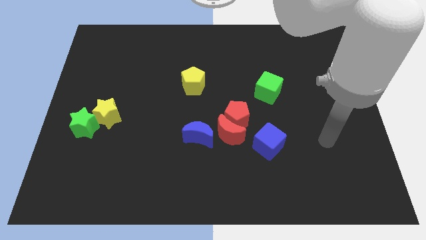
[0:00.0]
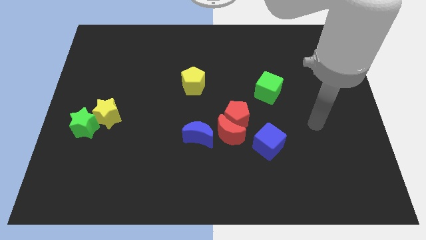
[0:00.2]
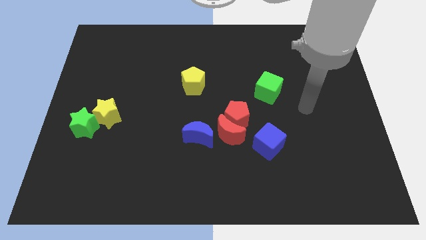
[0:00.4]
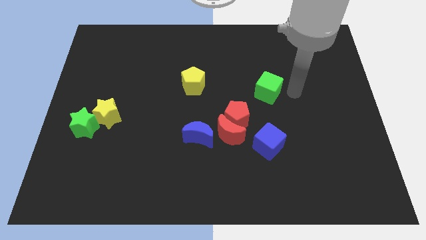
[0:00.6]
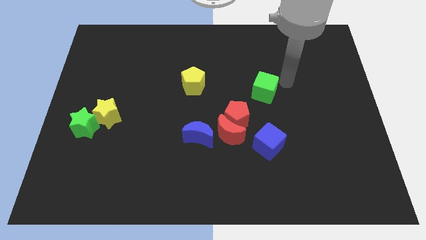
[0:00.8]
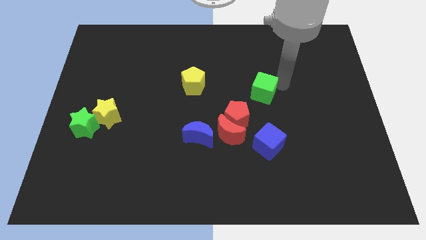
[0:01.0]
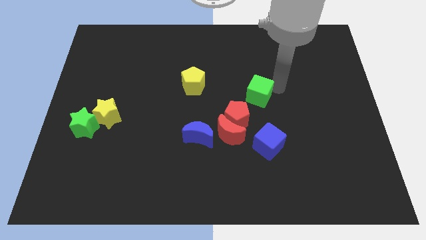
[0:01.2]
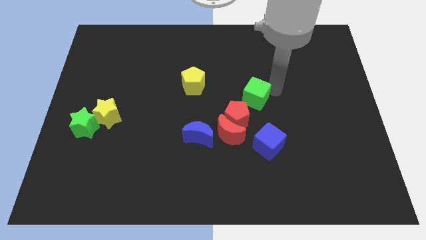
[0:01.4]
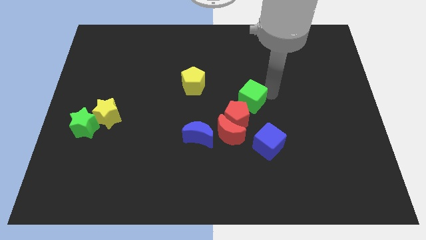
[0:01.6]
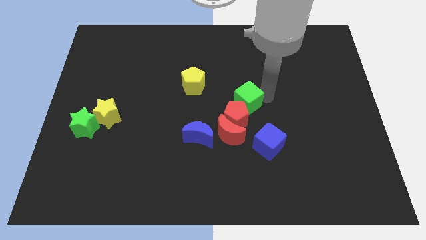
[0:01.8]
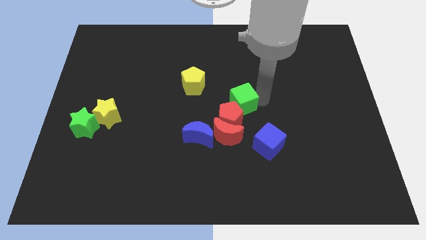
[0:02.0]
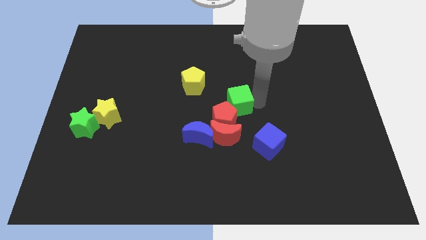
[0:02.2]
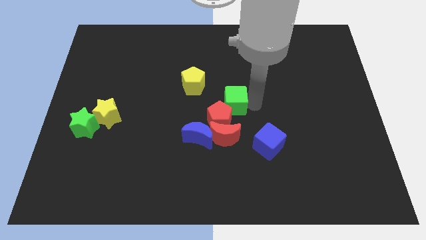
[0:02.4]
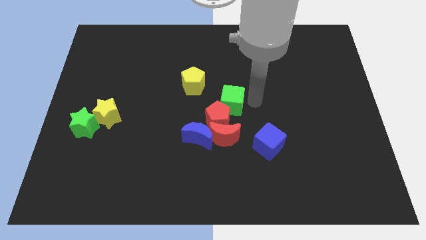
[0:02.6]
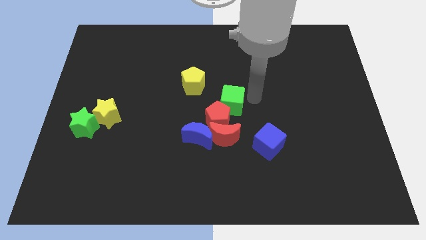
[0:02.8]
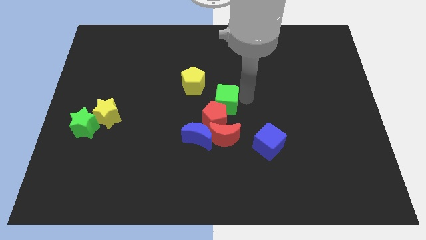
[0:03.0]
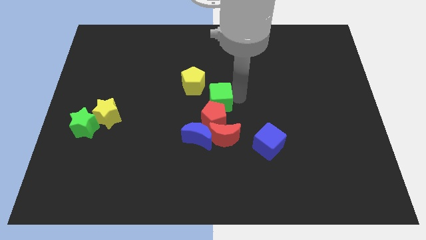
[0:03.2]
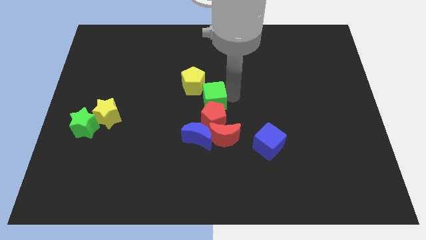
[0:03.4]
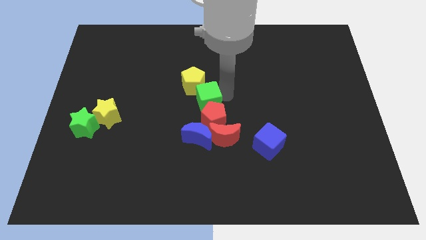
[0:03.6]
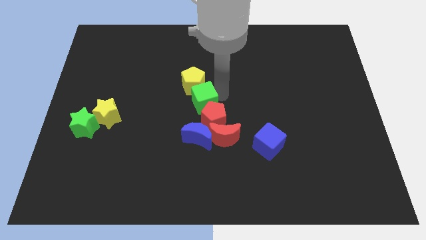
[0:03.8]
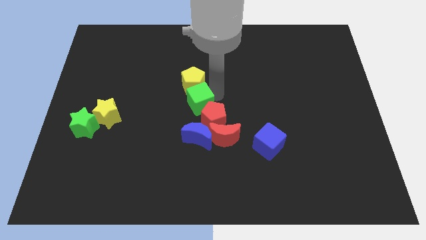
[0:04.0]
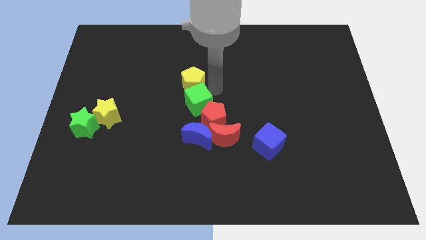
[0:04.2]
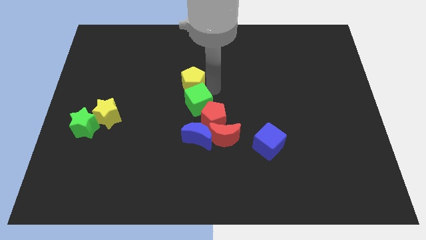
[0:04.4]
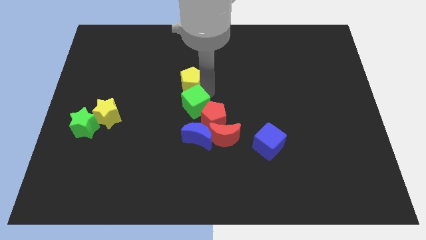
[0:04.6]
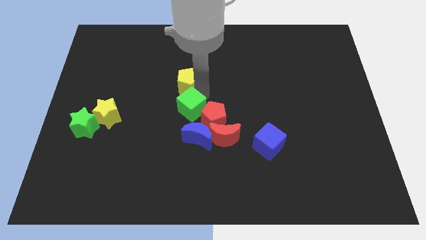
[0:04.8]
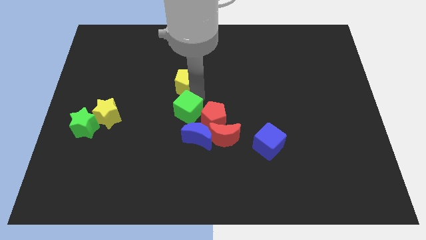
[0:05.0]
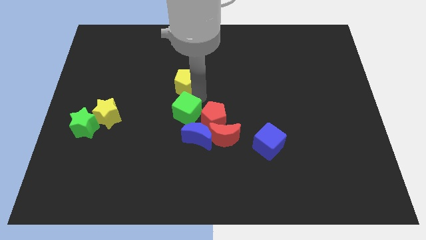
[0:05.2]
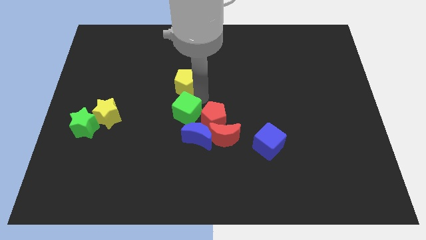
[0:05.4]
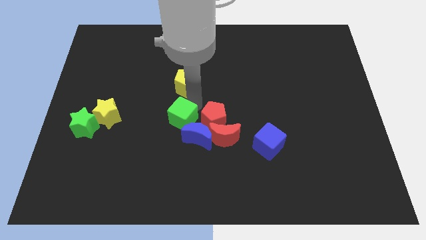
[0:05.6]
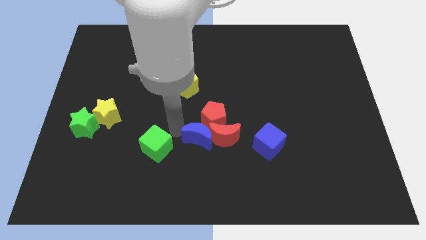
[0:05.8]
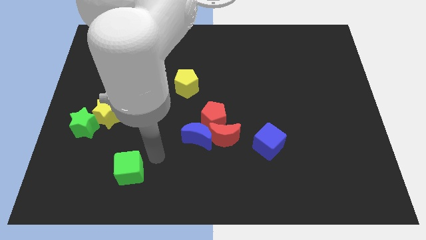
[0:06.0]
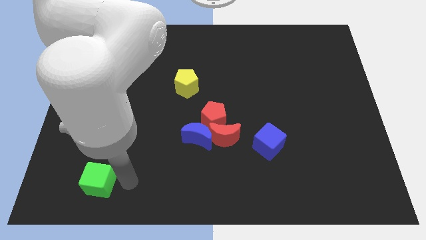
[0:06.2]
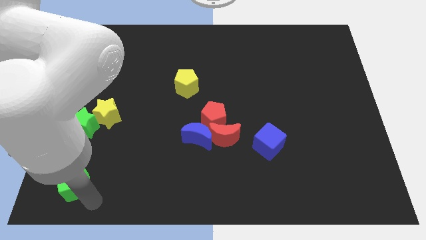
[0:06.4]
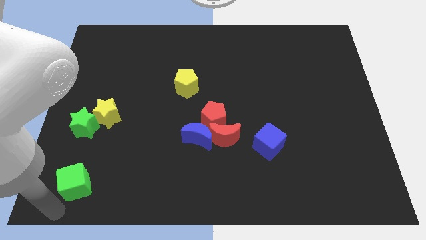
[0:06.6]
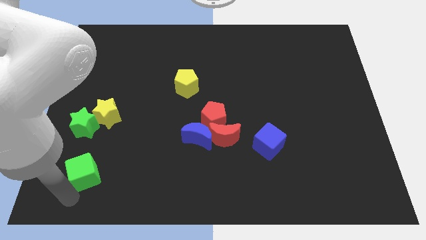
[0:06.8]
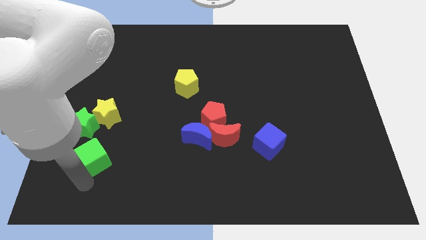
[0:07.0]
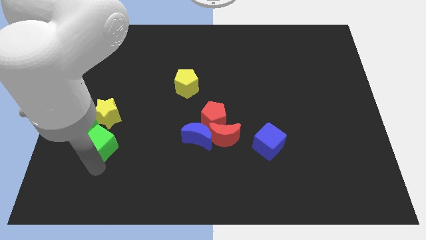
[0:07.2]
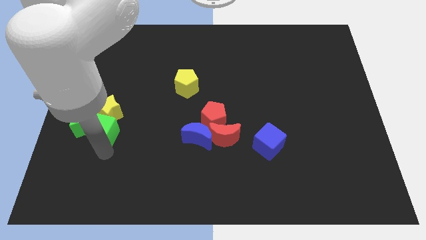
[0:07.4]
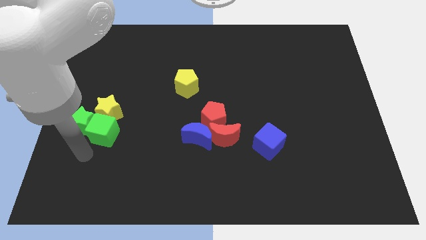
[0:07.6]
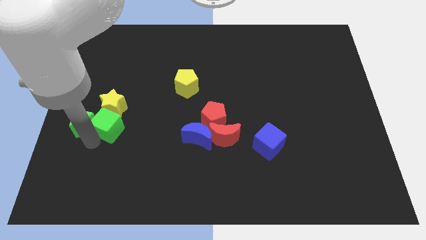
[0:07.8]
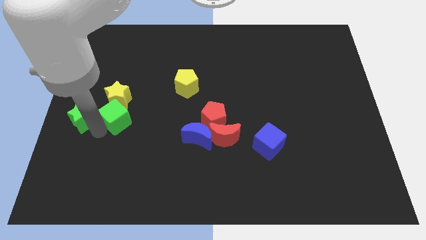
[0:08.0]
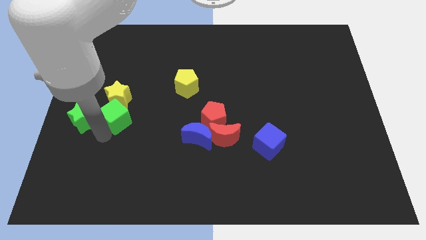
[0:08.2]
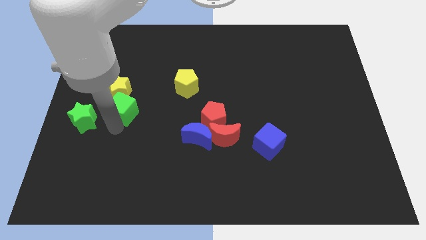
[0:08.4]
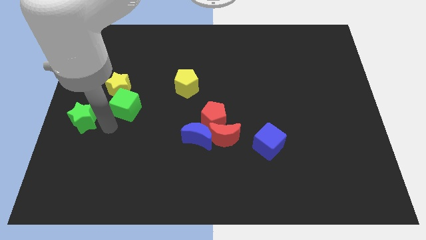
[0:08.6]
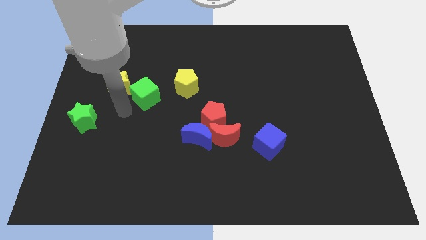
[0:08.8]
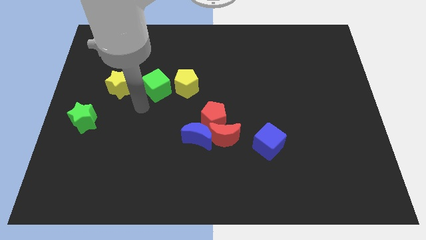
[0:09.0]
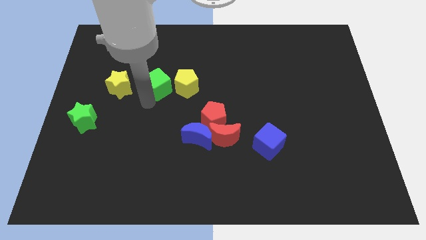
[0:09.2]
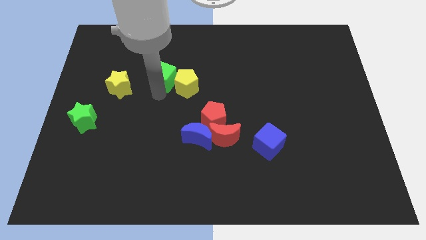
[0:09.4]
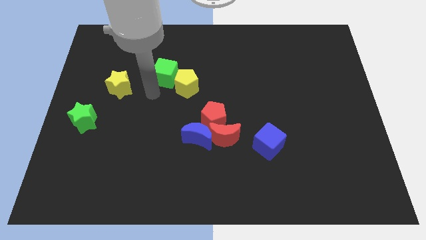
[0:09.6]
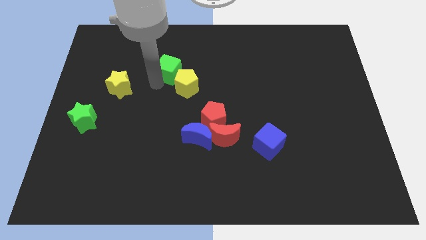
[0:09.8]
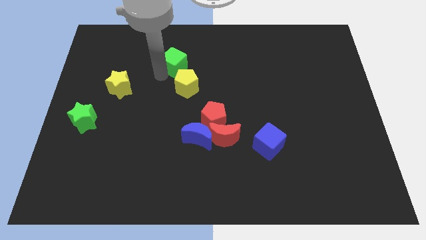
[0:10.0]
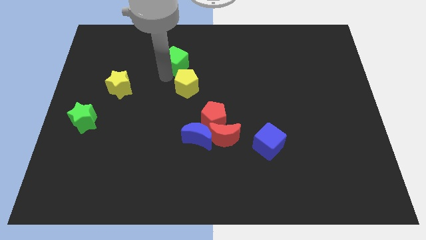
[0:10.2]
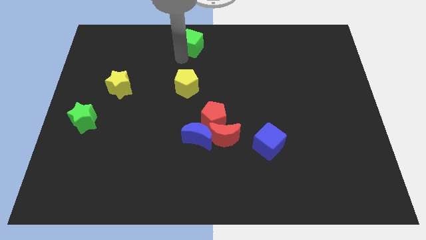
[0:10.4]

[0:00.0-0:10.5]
move the green cube to the top

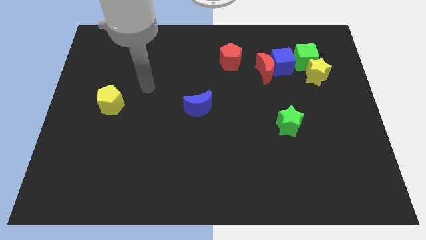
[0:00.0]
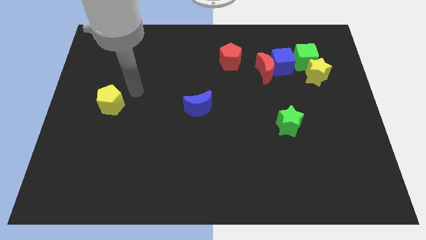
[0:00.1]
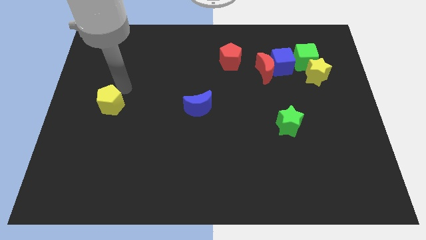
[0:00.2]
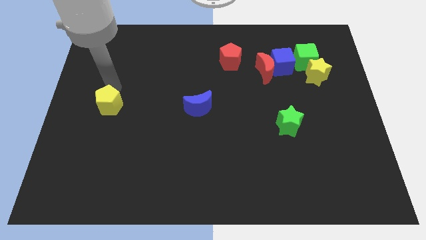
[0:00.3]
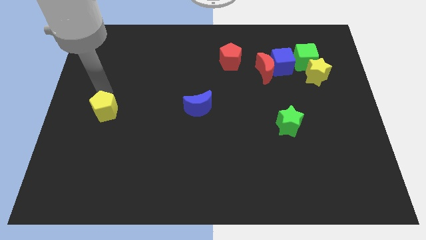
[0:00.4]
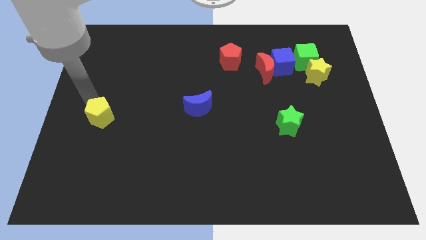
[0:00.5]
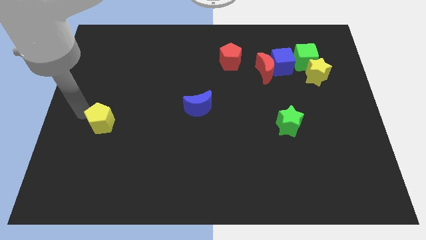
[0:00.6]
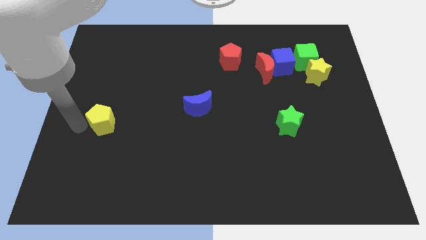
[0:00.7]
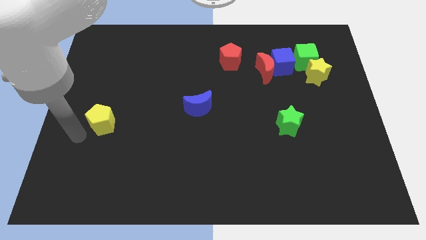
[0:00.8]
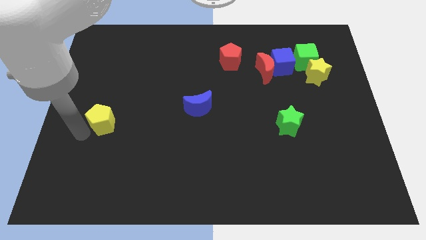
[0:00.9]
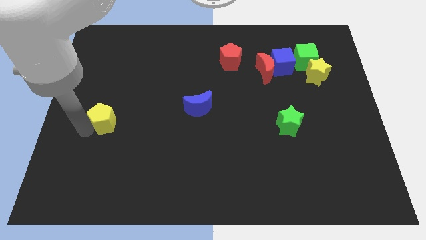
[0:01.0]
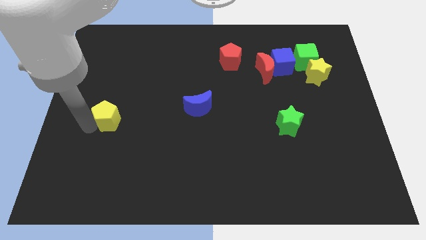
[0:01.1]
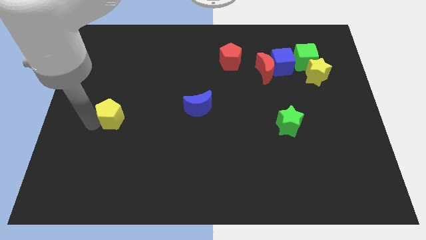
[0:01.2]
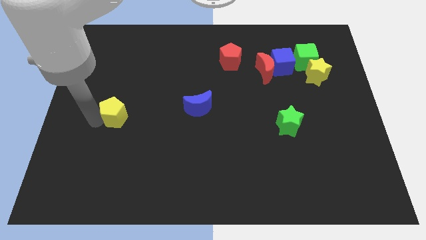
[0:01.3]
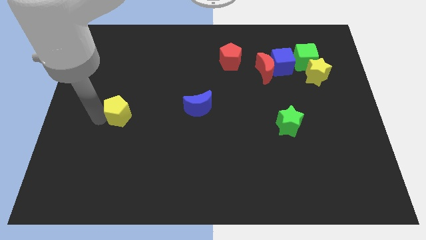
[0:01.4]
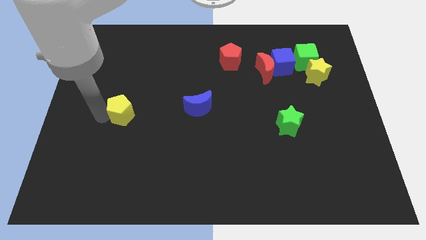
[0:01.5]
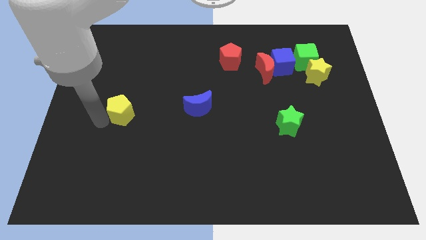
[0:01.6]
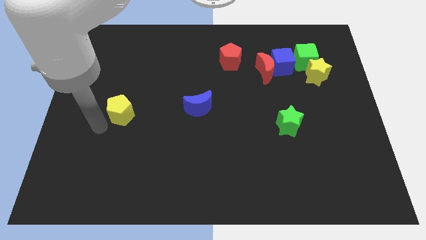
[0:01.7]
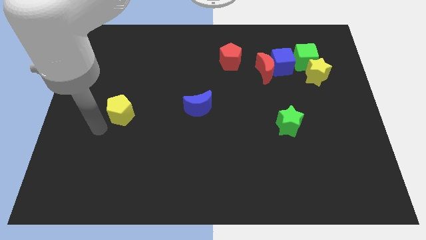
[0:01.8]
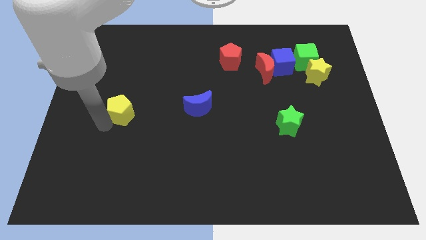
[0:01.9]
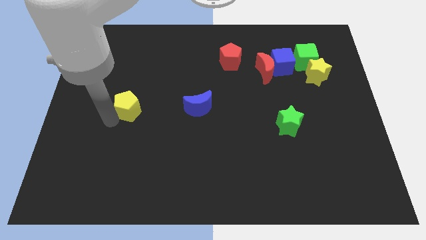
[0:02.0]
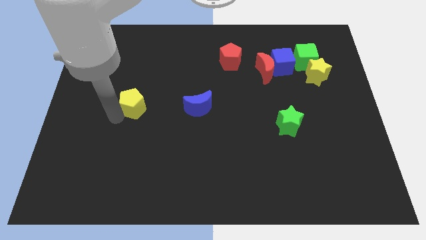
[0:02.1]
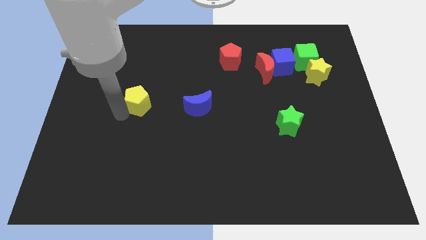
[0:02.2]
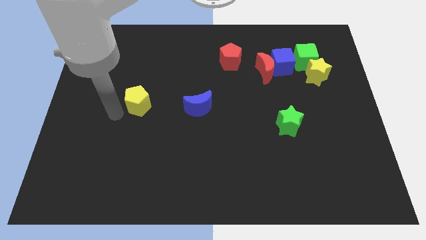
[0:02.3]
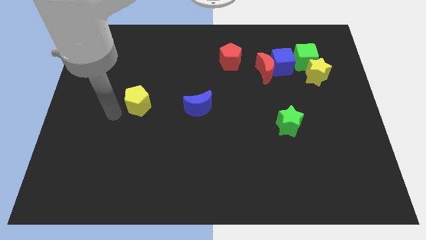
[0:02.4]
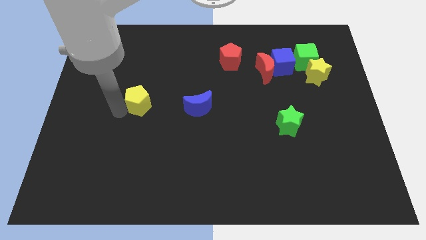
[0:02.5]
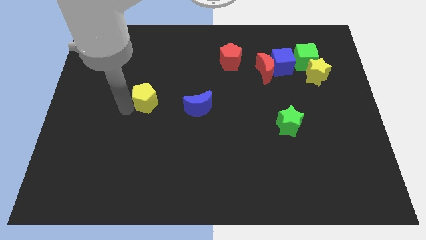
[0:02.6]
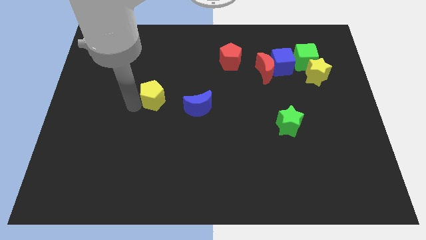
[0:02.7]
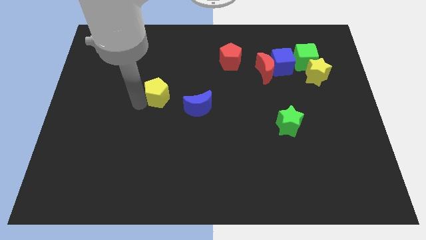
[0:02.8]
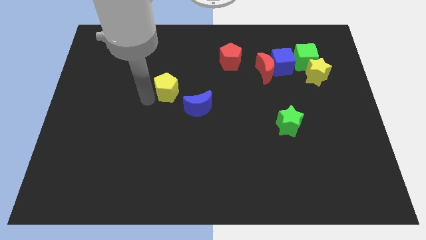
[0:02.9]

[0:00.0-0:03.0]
push the yellow pentagon to the middle
